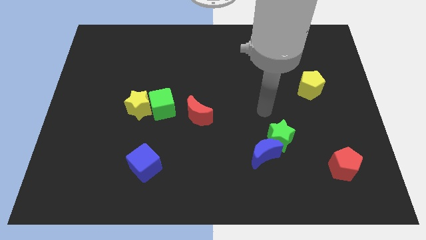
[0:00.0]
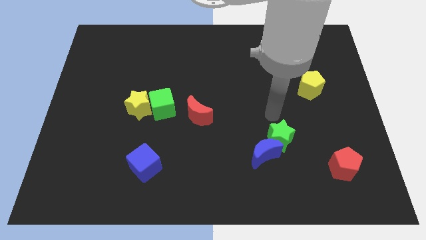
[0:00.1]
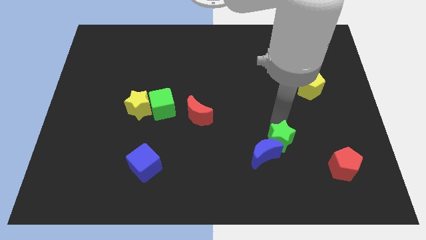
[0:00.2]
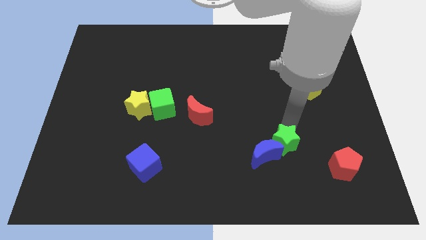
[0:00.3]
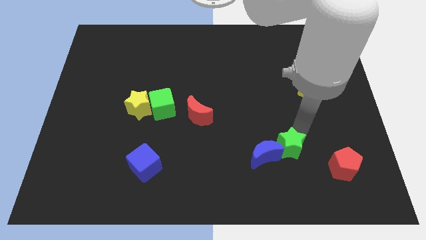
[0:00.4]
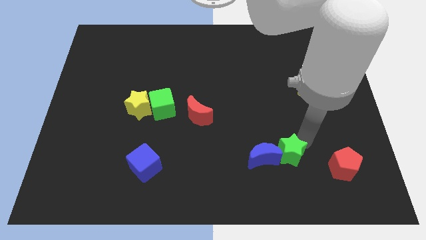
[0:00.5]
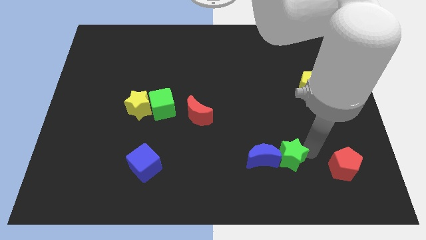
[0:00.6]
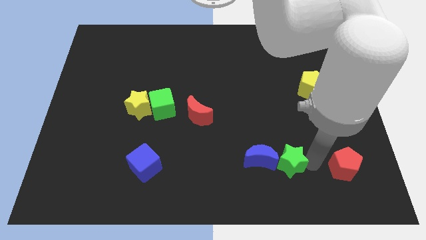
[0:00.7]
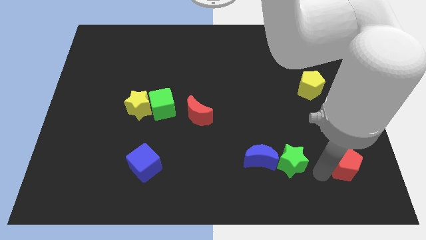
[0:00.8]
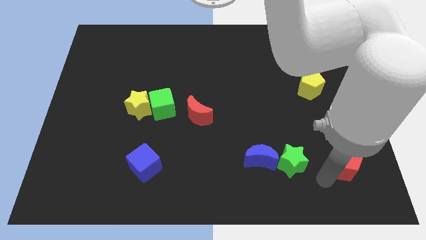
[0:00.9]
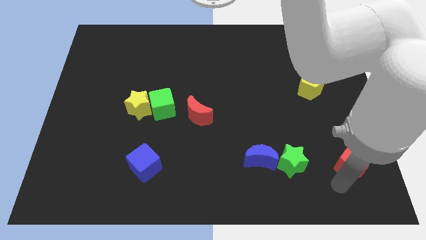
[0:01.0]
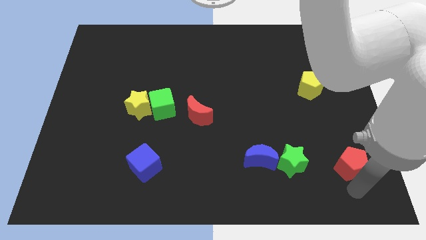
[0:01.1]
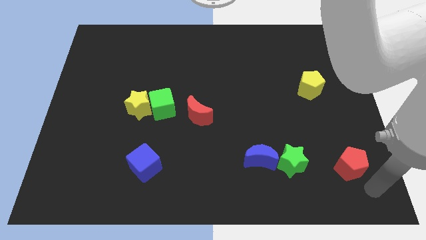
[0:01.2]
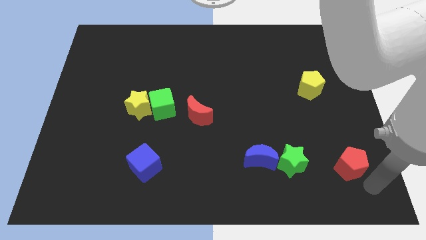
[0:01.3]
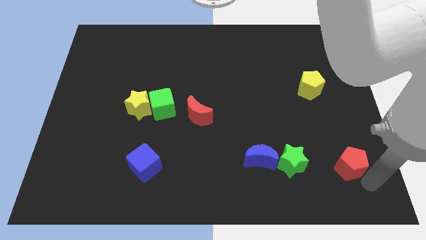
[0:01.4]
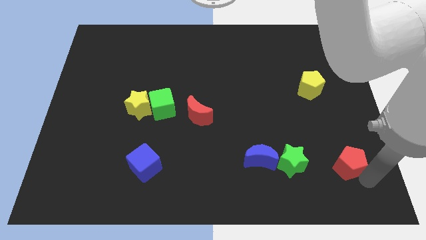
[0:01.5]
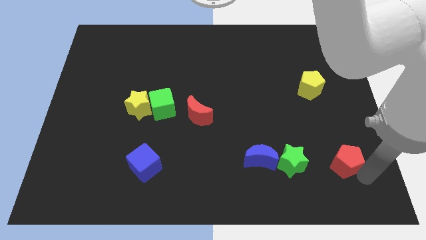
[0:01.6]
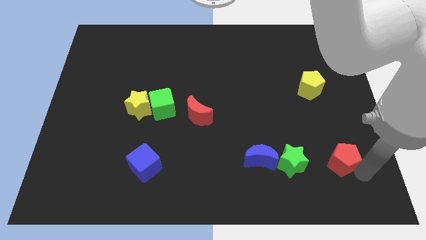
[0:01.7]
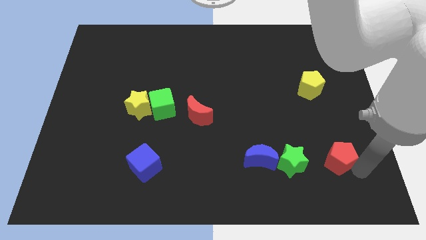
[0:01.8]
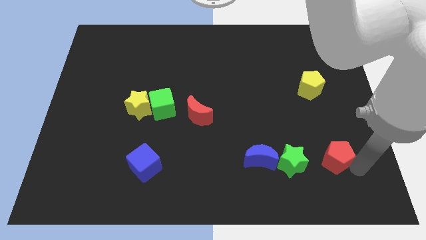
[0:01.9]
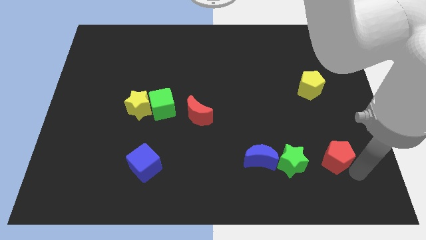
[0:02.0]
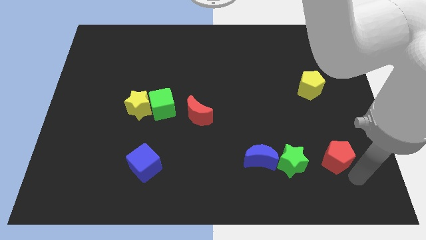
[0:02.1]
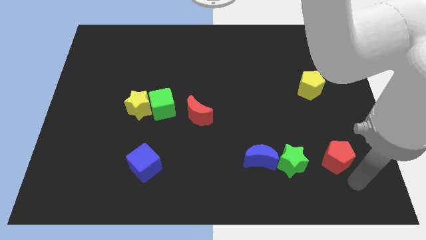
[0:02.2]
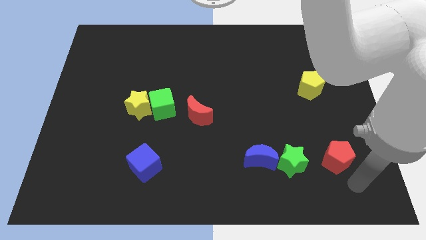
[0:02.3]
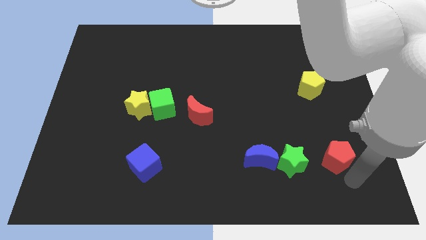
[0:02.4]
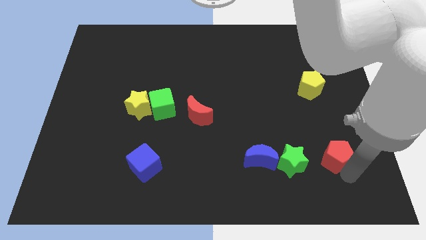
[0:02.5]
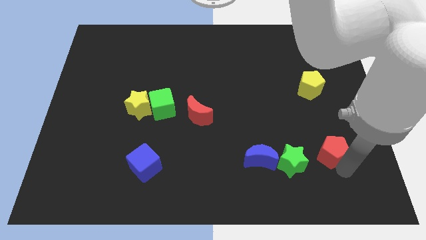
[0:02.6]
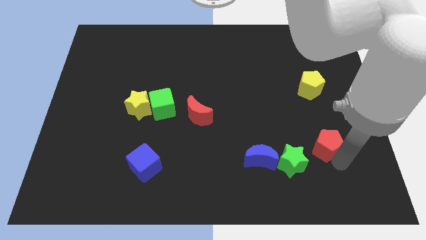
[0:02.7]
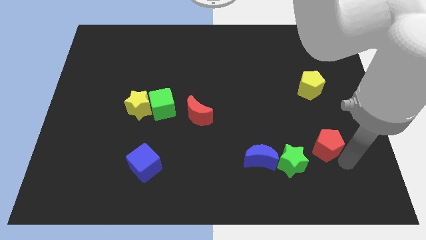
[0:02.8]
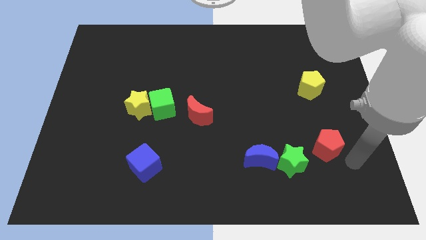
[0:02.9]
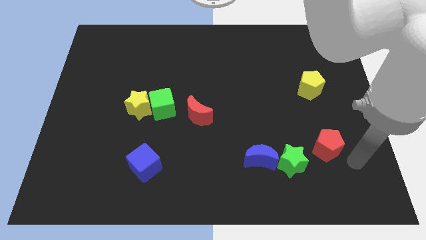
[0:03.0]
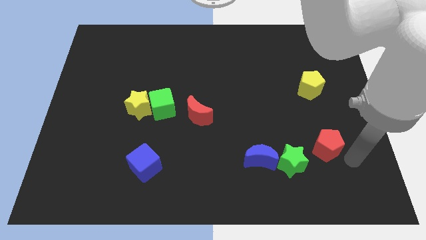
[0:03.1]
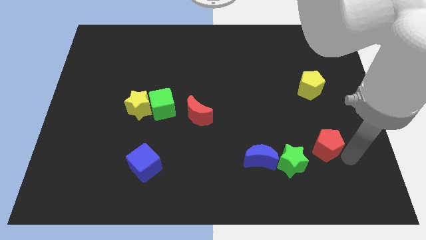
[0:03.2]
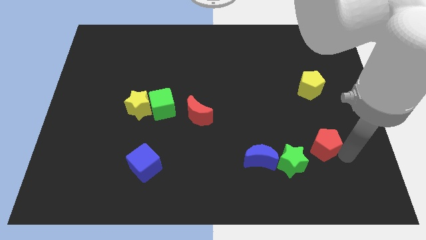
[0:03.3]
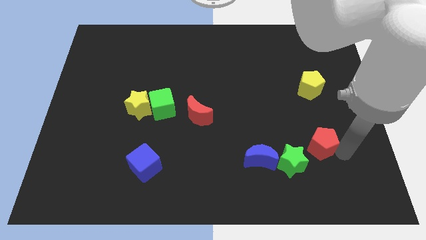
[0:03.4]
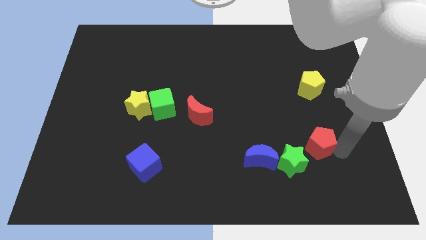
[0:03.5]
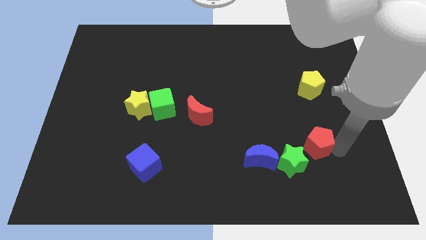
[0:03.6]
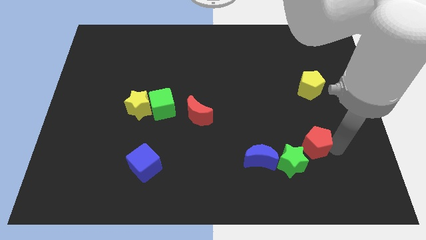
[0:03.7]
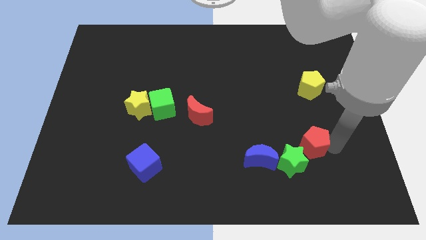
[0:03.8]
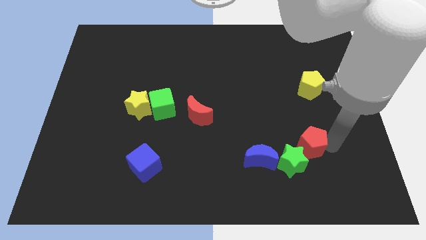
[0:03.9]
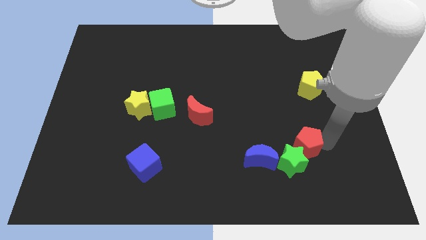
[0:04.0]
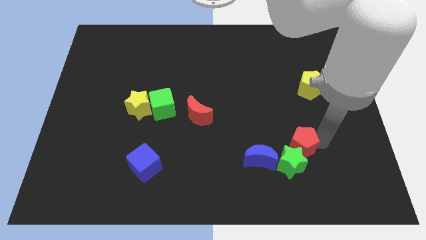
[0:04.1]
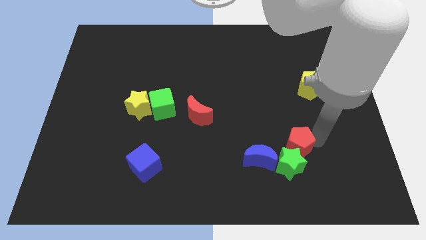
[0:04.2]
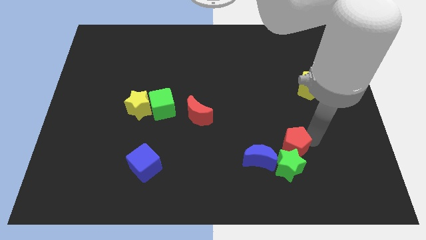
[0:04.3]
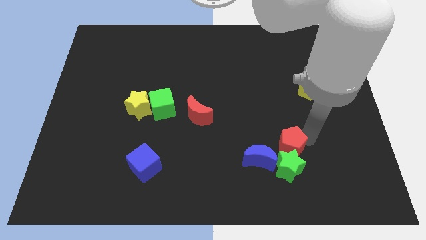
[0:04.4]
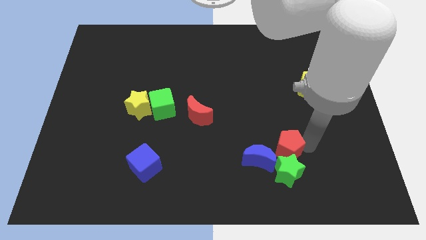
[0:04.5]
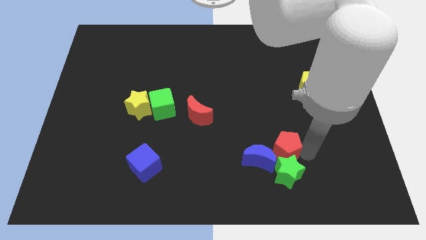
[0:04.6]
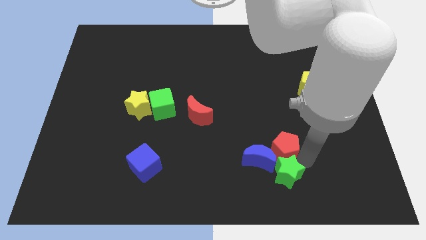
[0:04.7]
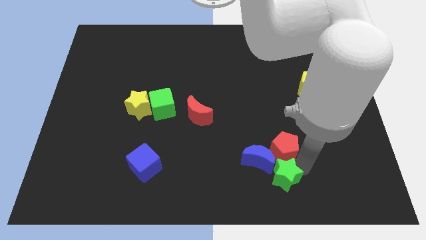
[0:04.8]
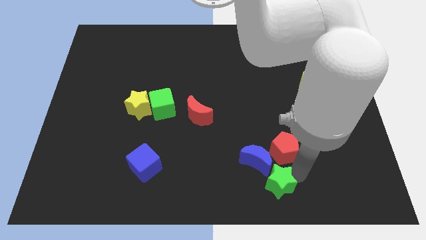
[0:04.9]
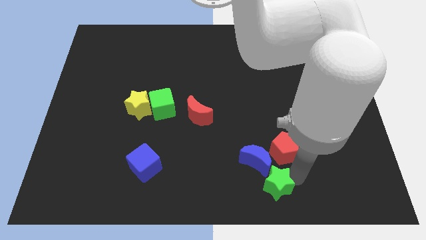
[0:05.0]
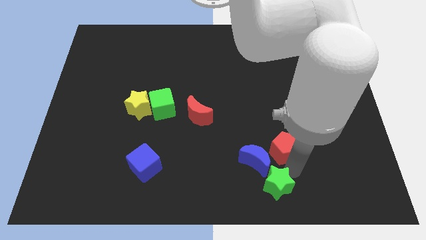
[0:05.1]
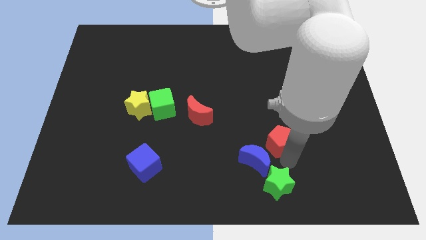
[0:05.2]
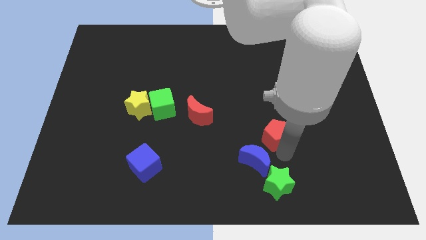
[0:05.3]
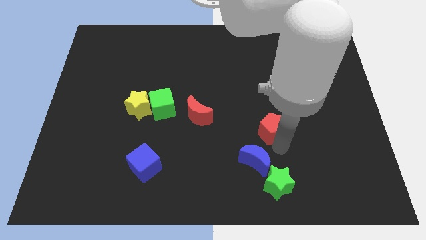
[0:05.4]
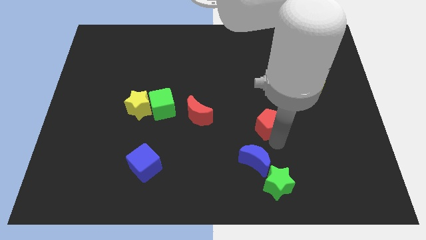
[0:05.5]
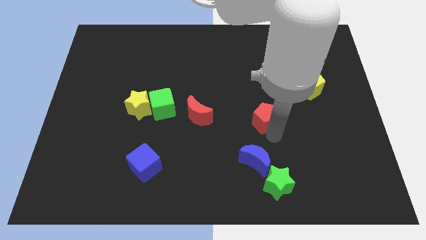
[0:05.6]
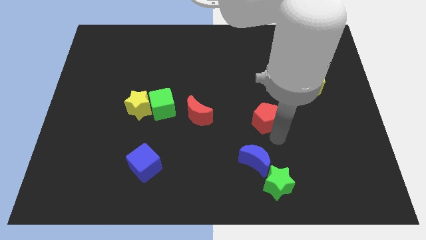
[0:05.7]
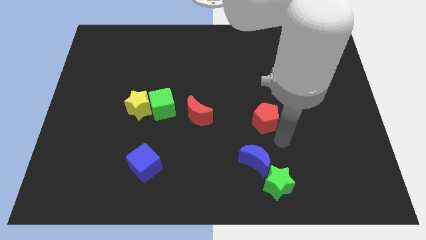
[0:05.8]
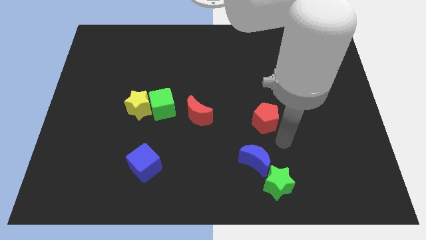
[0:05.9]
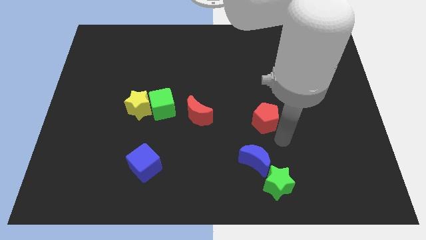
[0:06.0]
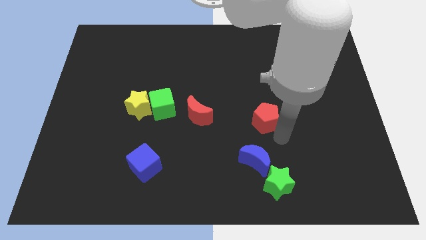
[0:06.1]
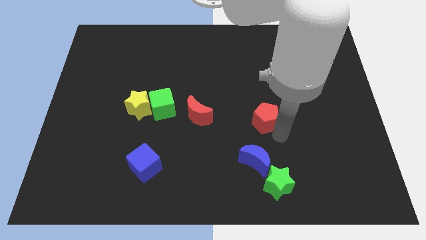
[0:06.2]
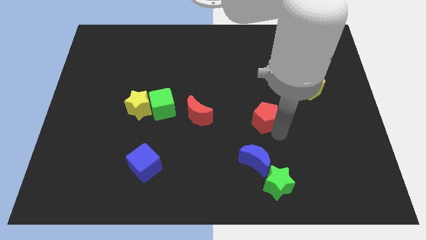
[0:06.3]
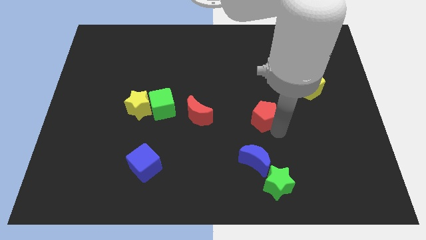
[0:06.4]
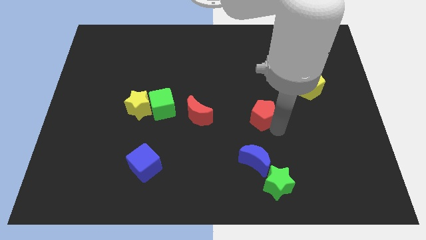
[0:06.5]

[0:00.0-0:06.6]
put the red pentagon to the center of the board

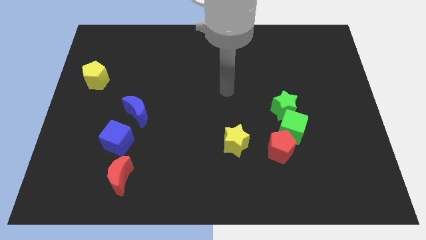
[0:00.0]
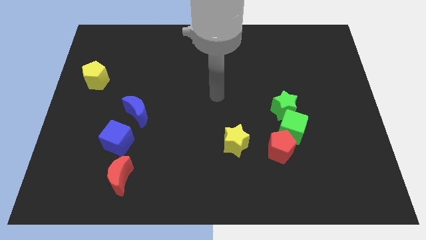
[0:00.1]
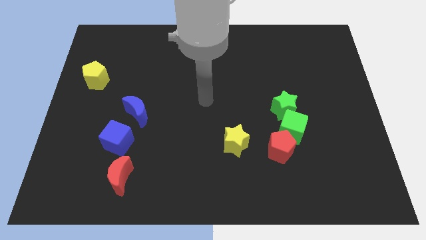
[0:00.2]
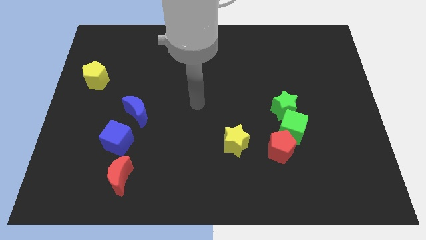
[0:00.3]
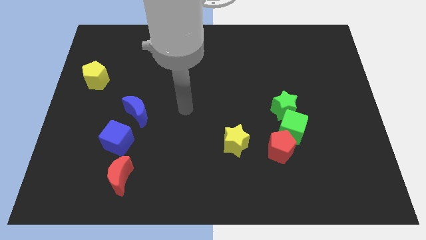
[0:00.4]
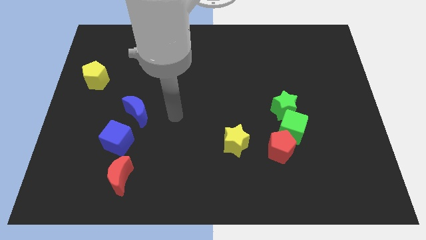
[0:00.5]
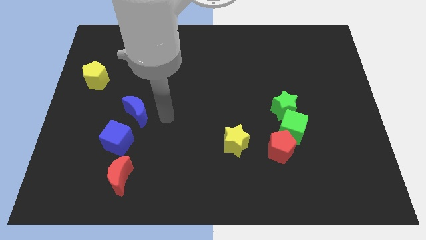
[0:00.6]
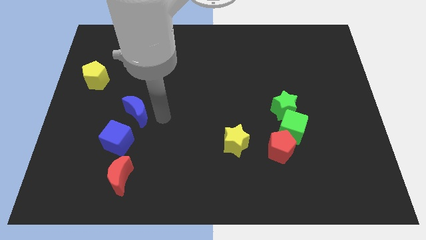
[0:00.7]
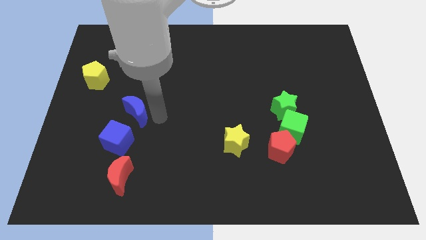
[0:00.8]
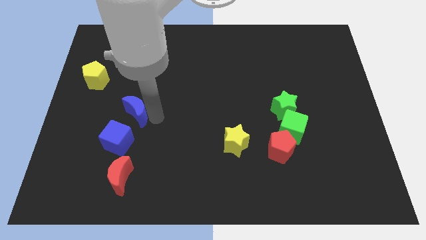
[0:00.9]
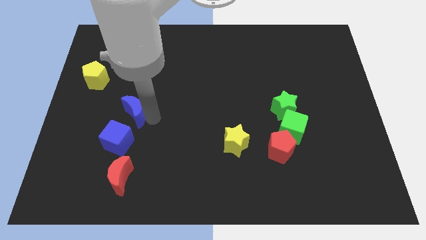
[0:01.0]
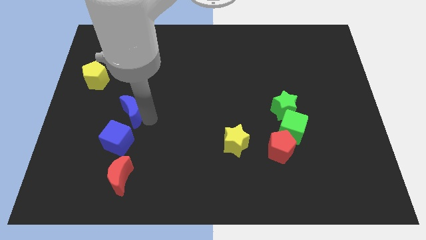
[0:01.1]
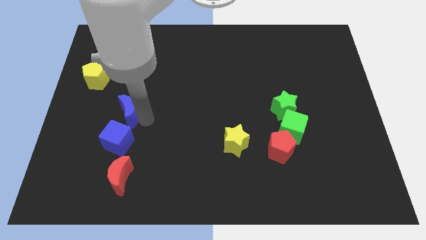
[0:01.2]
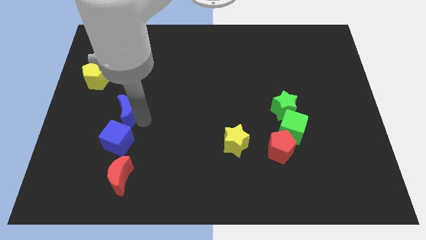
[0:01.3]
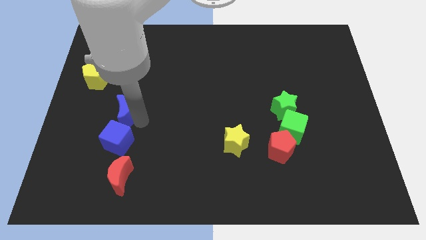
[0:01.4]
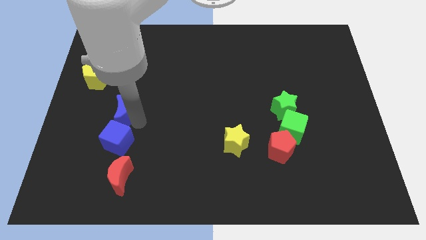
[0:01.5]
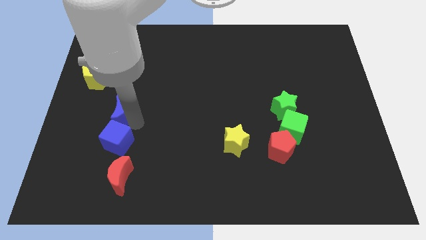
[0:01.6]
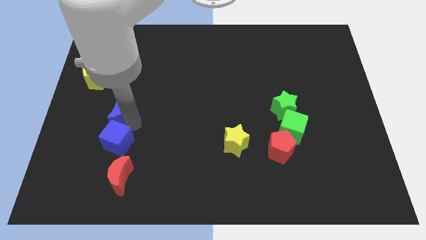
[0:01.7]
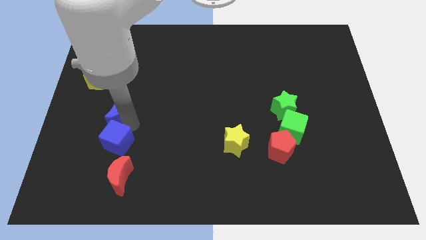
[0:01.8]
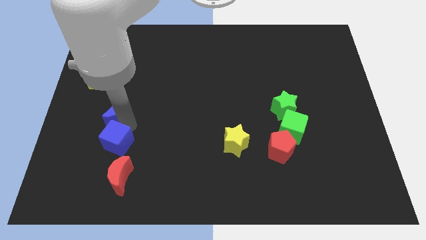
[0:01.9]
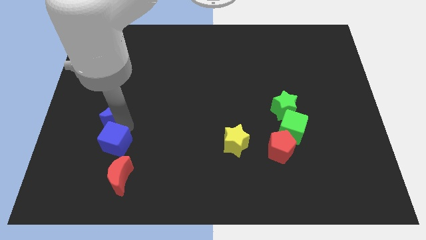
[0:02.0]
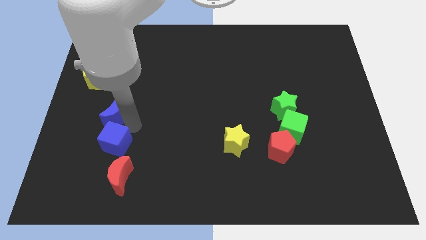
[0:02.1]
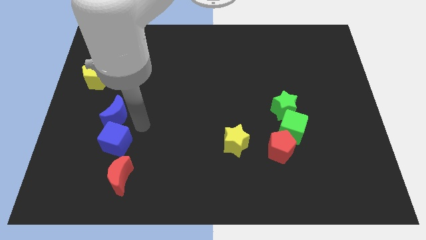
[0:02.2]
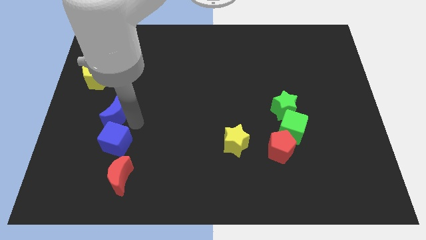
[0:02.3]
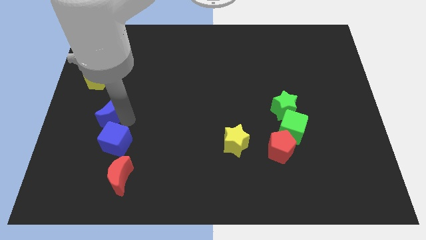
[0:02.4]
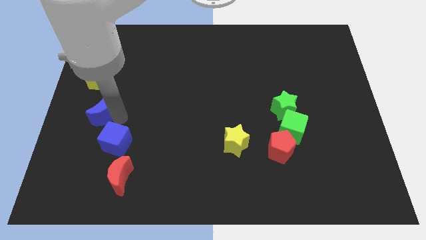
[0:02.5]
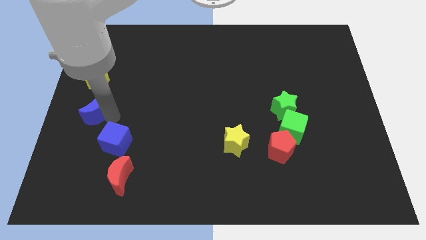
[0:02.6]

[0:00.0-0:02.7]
slide the blue moon to the left side
